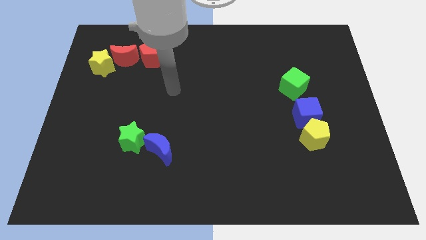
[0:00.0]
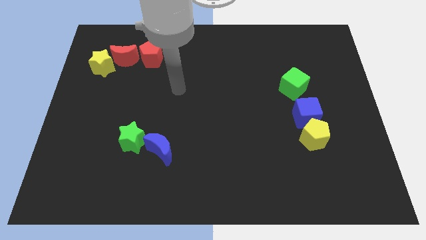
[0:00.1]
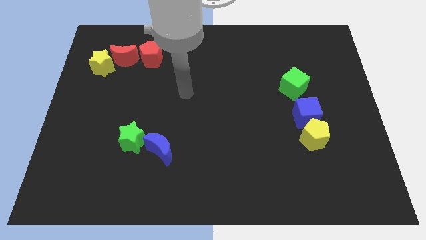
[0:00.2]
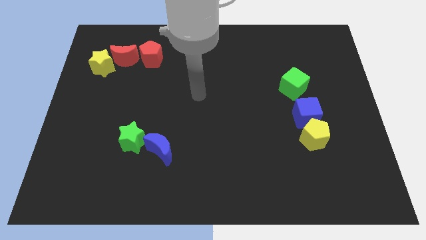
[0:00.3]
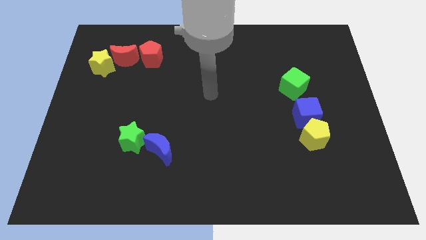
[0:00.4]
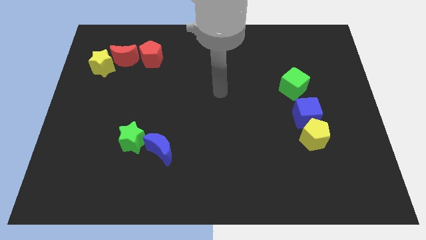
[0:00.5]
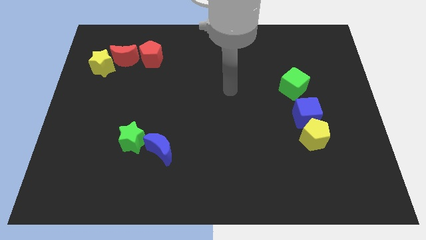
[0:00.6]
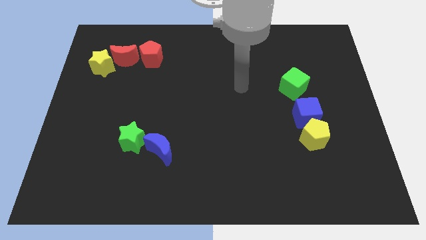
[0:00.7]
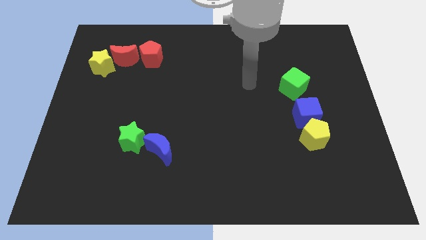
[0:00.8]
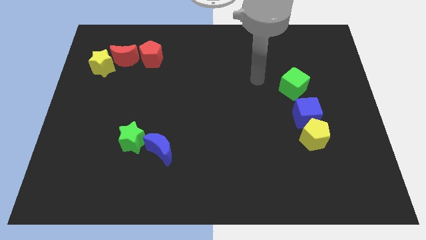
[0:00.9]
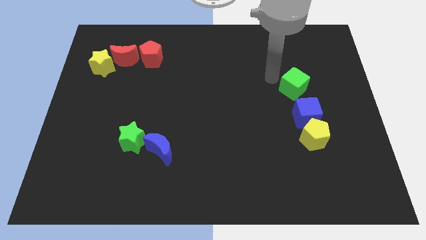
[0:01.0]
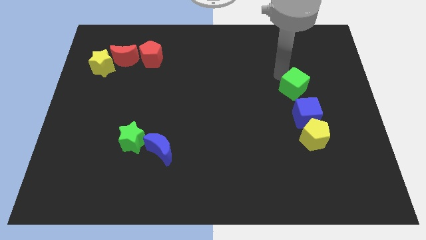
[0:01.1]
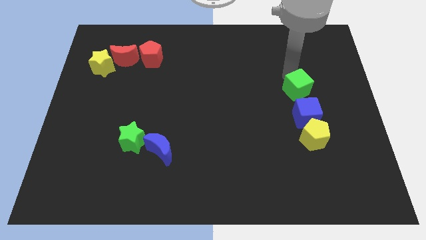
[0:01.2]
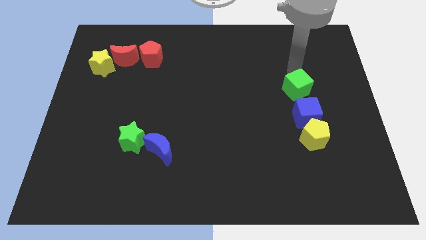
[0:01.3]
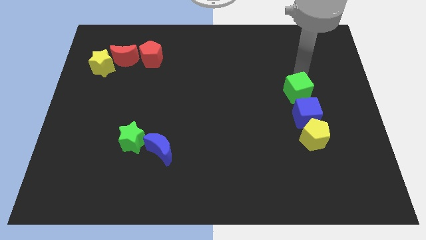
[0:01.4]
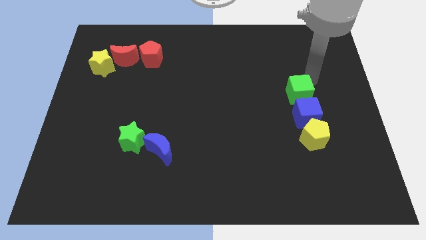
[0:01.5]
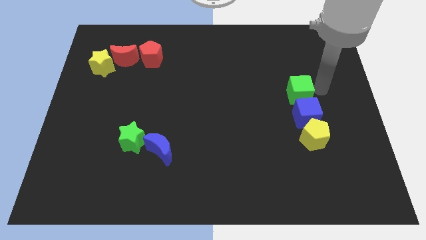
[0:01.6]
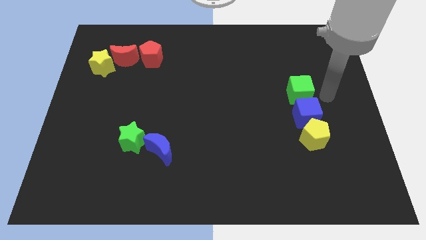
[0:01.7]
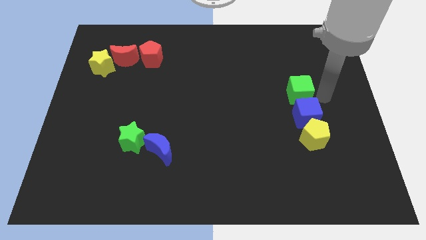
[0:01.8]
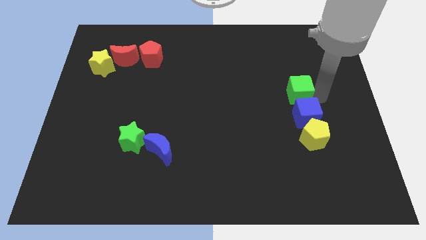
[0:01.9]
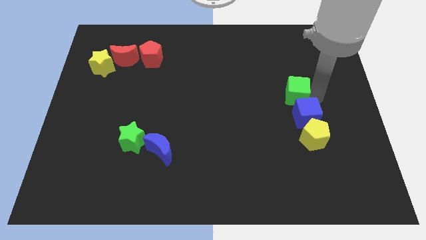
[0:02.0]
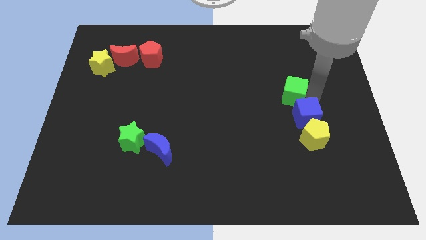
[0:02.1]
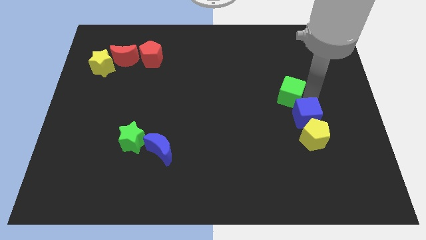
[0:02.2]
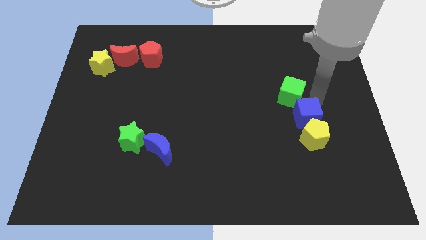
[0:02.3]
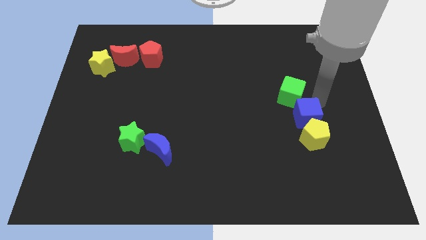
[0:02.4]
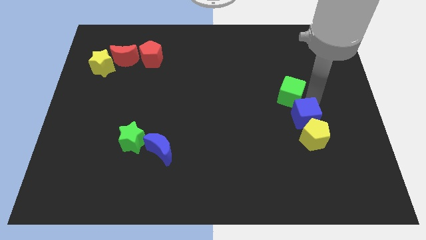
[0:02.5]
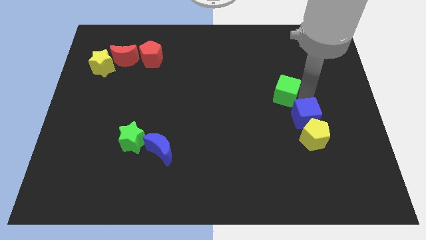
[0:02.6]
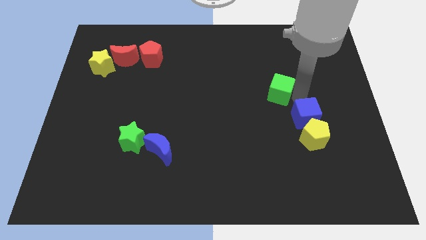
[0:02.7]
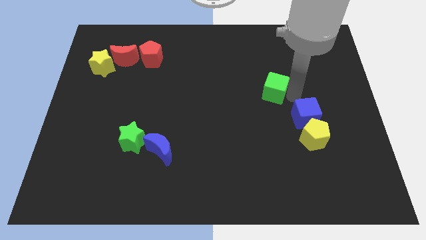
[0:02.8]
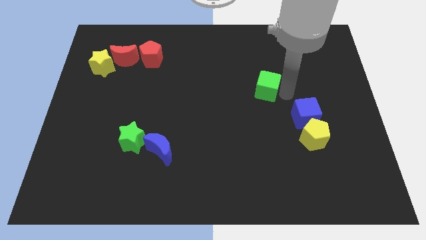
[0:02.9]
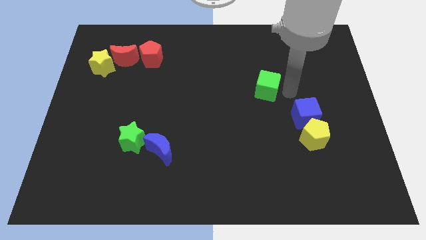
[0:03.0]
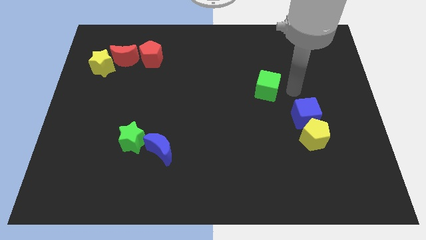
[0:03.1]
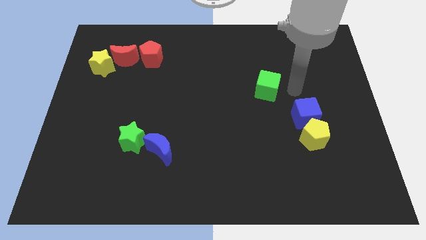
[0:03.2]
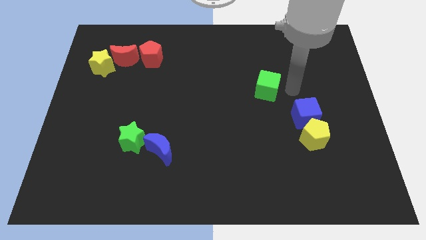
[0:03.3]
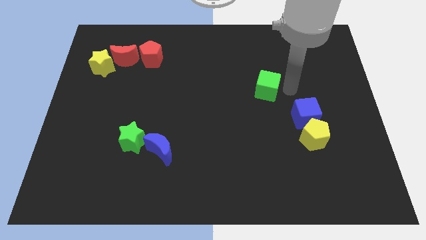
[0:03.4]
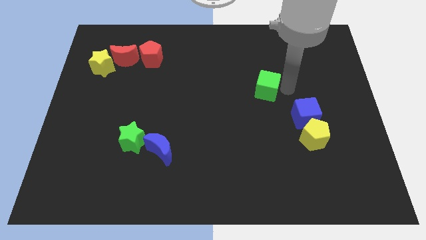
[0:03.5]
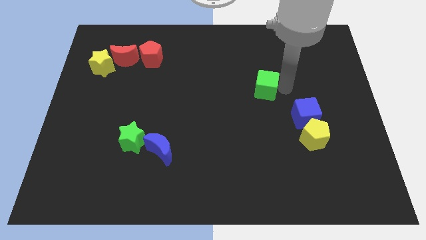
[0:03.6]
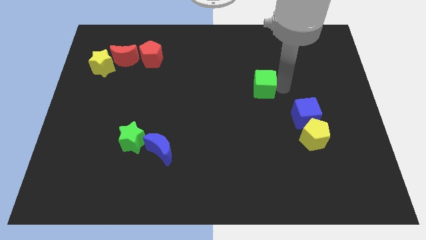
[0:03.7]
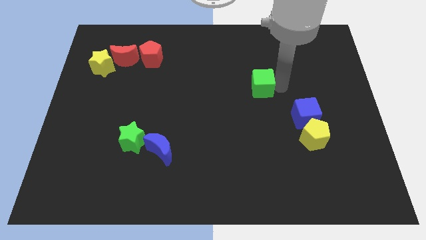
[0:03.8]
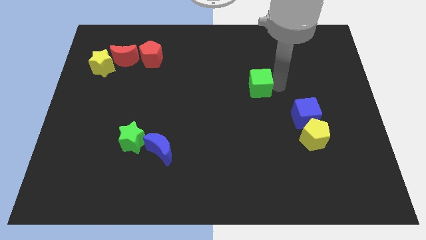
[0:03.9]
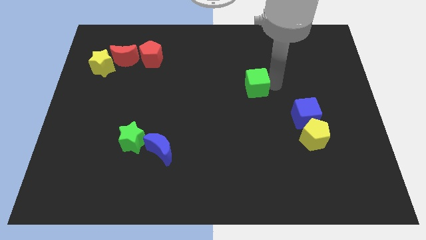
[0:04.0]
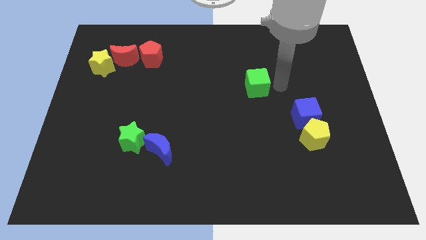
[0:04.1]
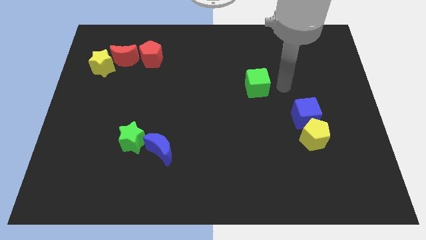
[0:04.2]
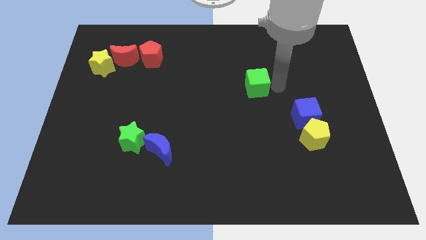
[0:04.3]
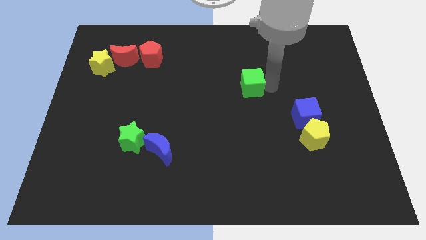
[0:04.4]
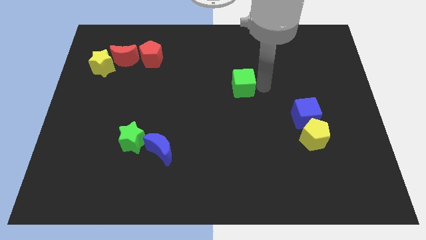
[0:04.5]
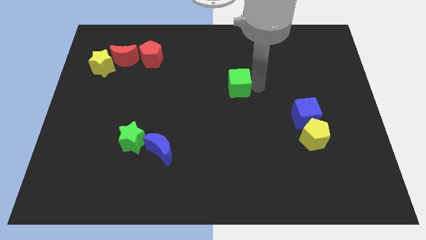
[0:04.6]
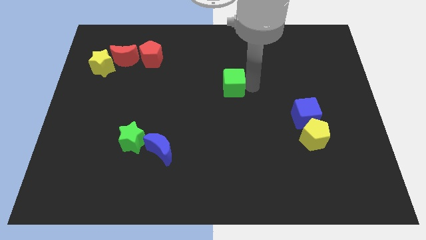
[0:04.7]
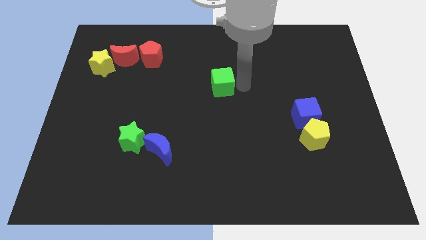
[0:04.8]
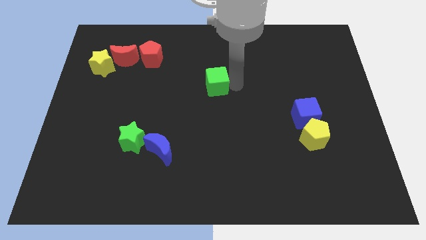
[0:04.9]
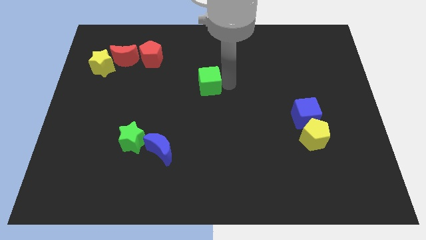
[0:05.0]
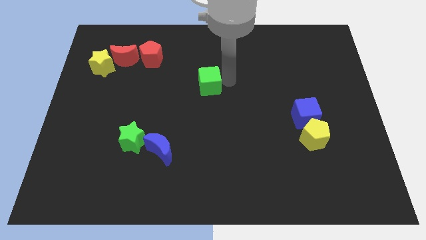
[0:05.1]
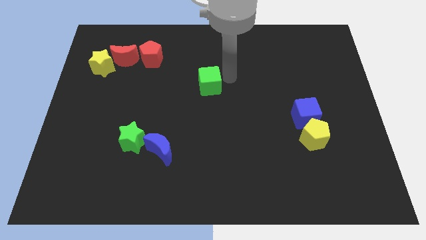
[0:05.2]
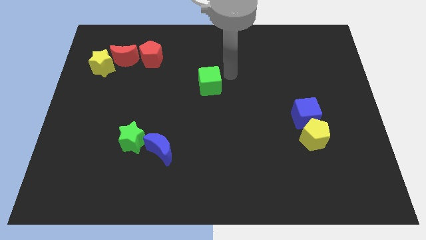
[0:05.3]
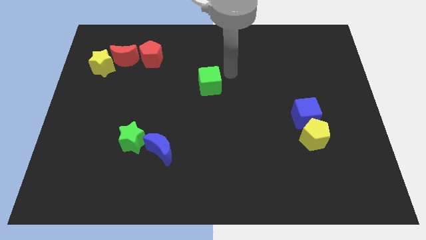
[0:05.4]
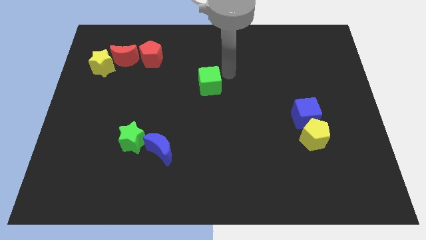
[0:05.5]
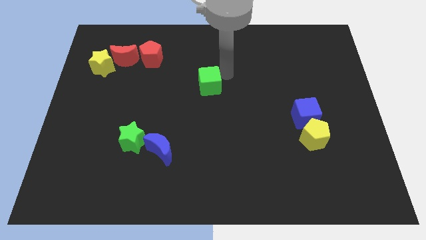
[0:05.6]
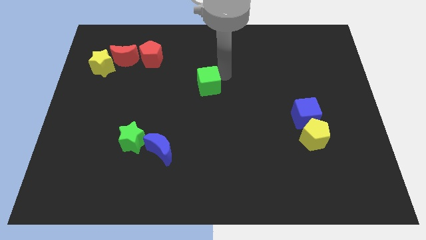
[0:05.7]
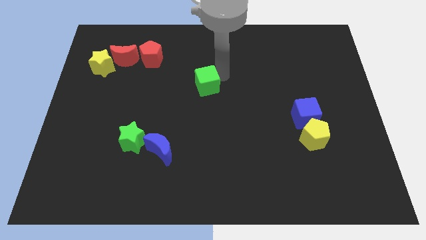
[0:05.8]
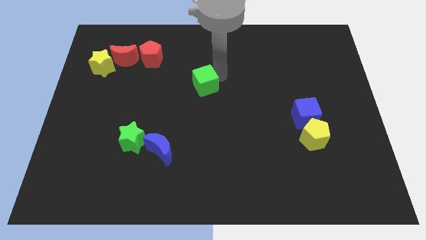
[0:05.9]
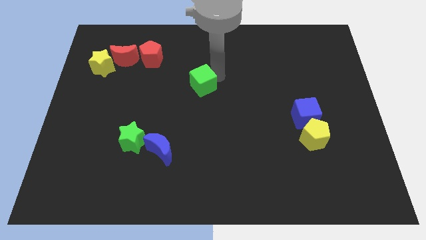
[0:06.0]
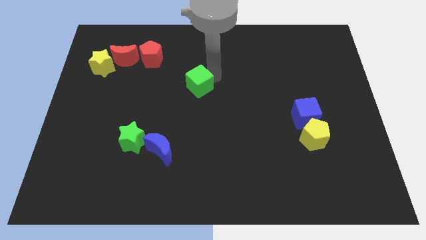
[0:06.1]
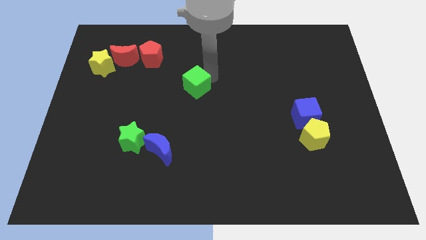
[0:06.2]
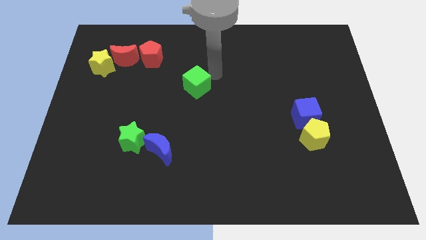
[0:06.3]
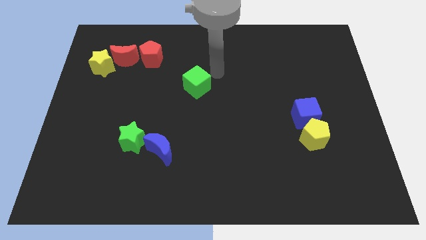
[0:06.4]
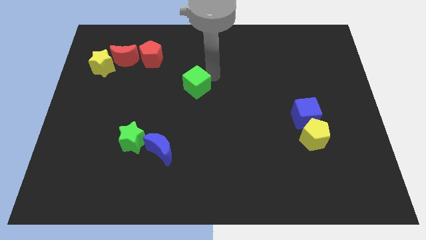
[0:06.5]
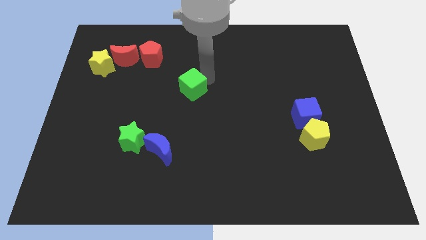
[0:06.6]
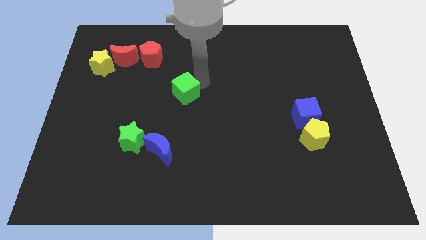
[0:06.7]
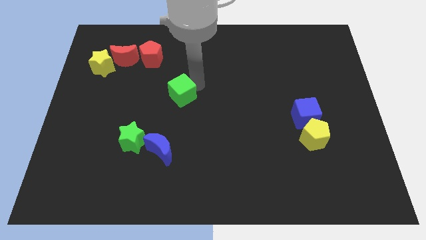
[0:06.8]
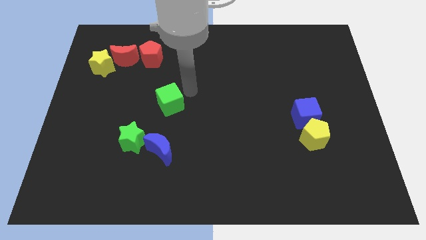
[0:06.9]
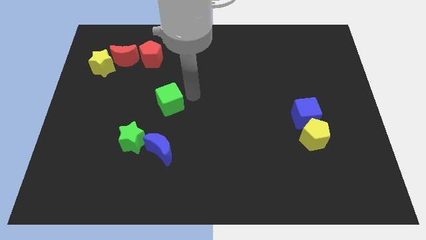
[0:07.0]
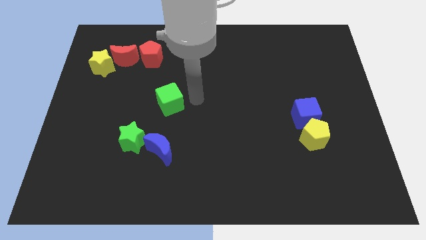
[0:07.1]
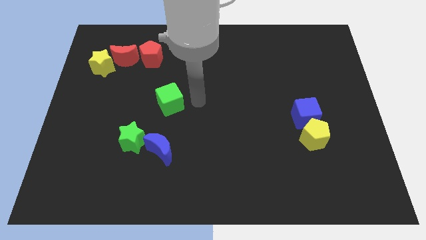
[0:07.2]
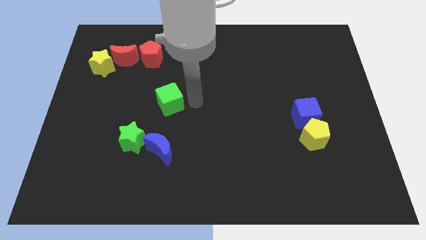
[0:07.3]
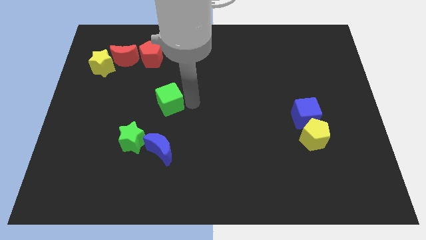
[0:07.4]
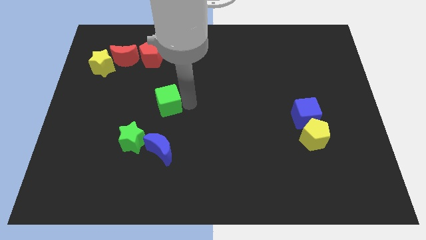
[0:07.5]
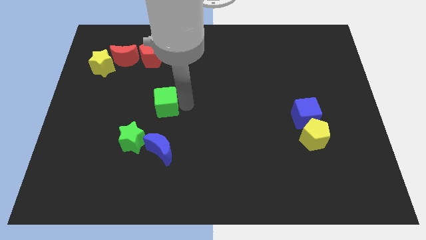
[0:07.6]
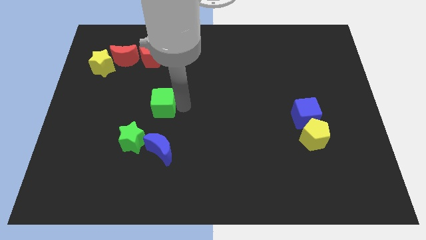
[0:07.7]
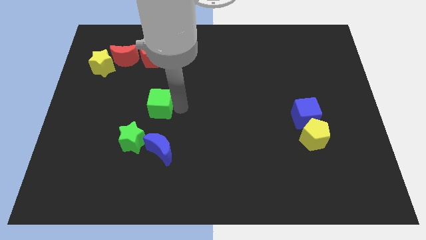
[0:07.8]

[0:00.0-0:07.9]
put the green cube above the green star
